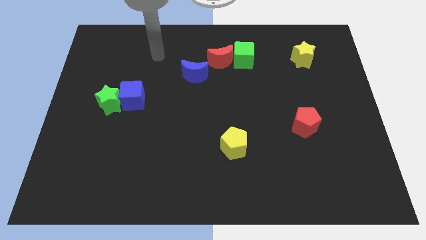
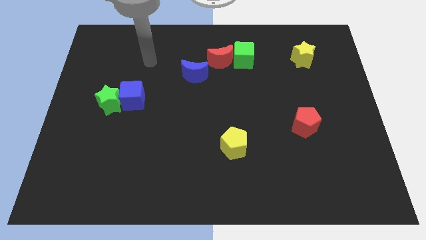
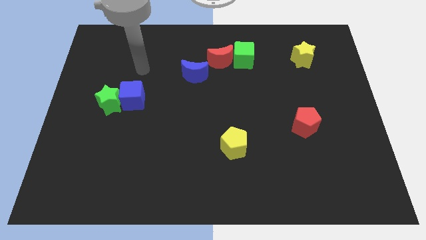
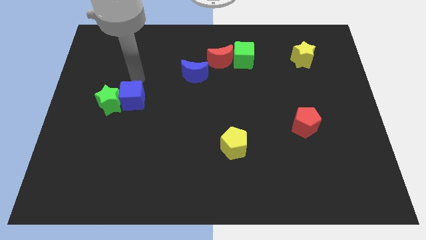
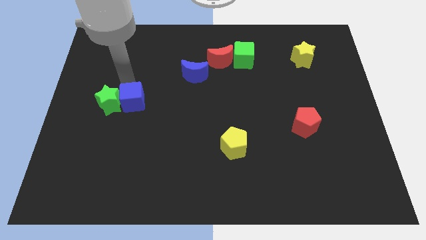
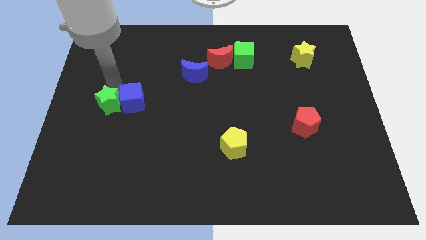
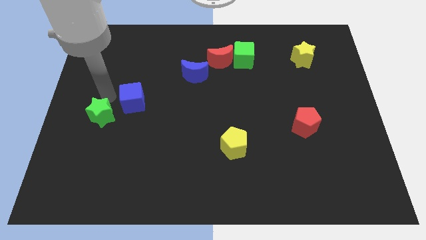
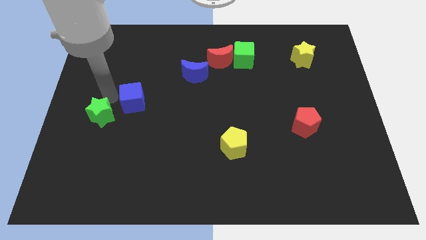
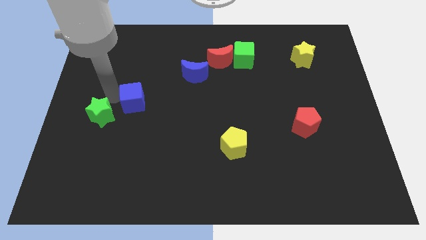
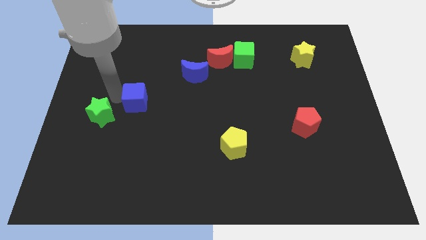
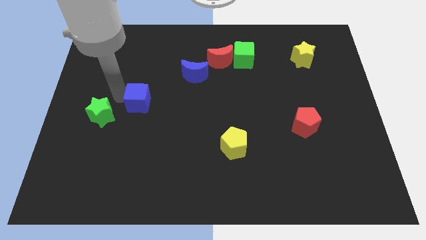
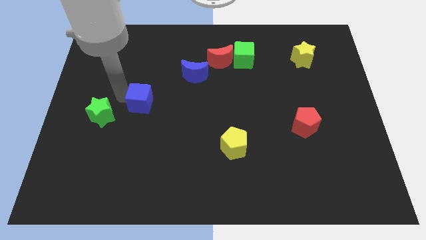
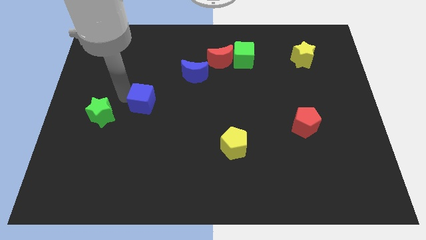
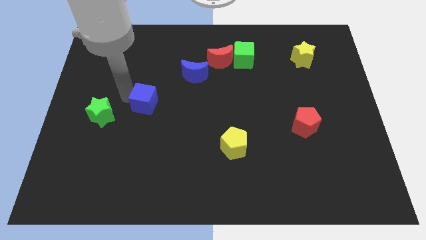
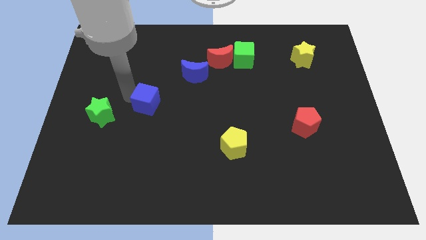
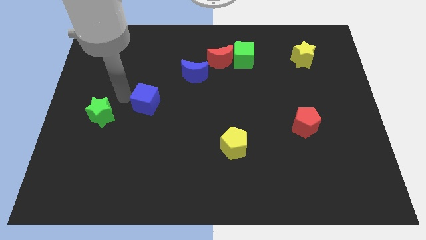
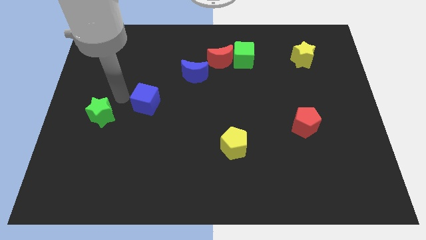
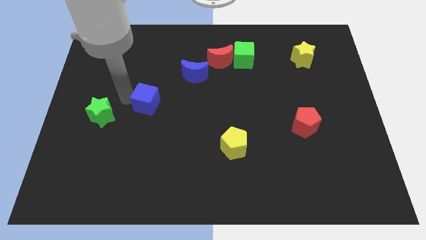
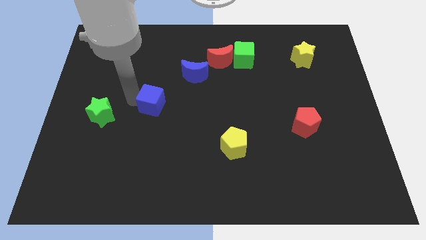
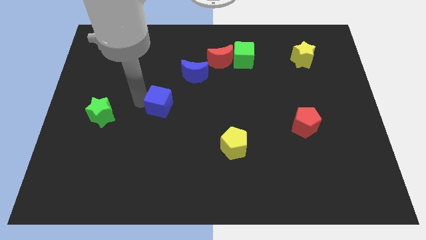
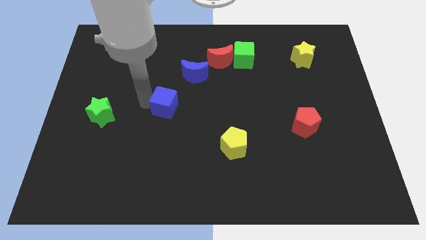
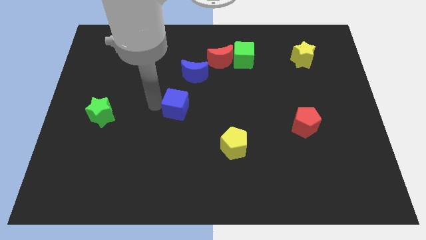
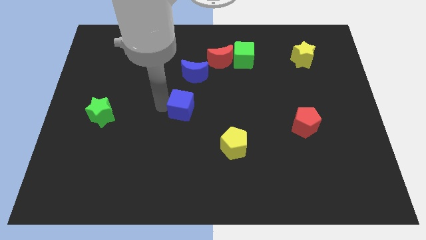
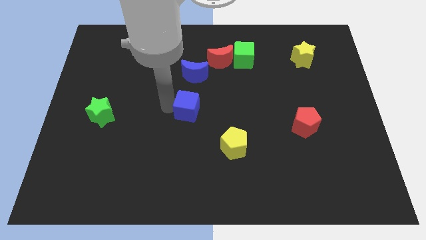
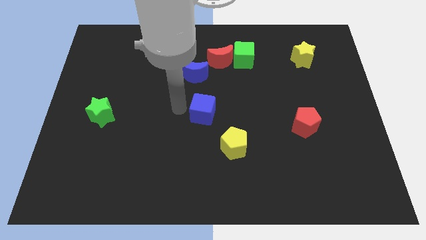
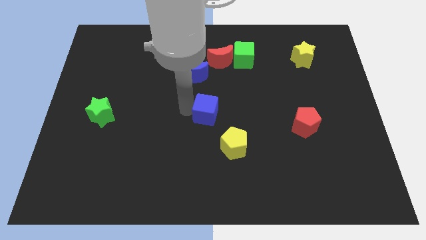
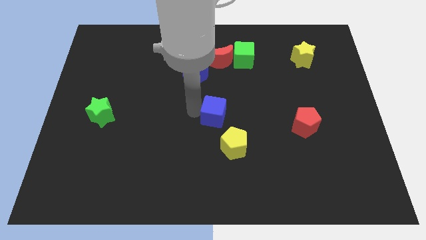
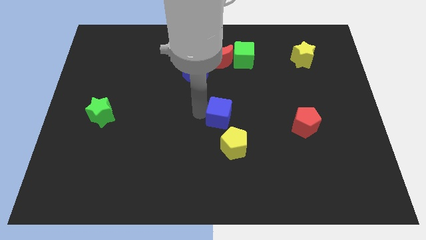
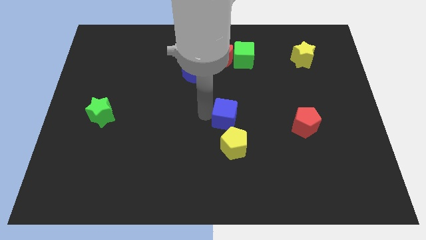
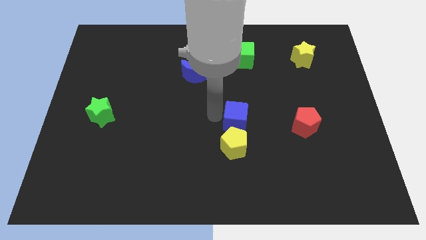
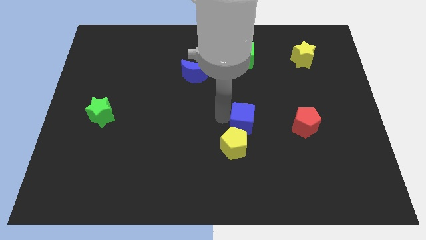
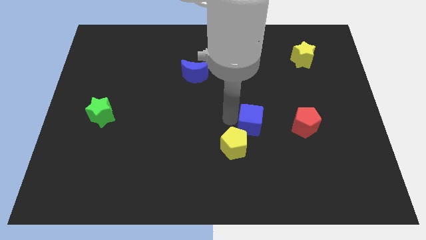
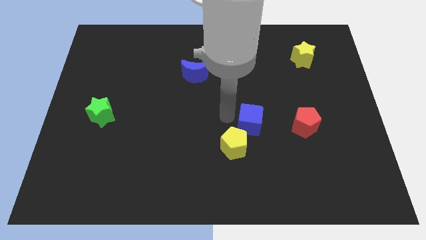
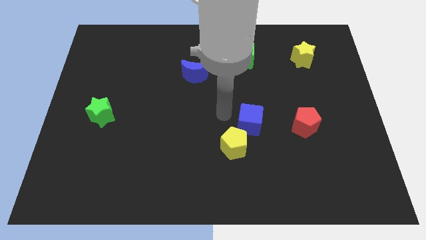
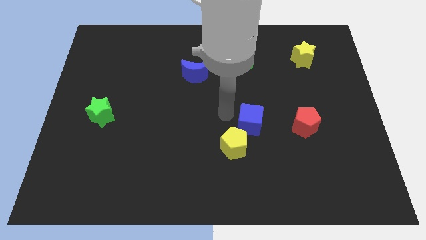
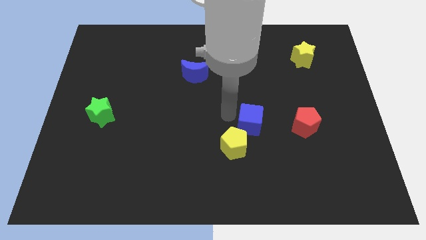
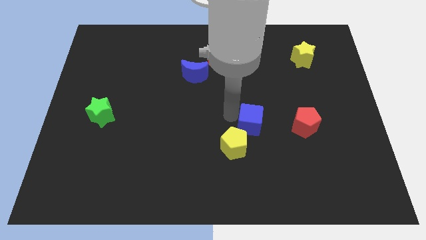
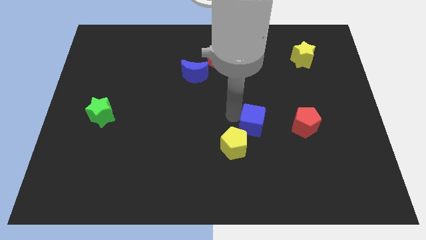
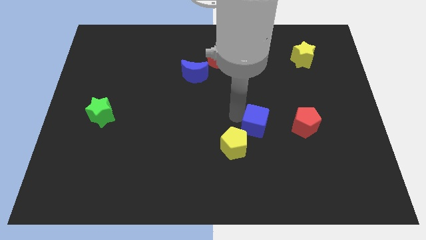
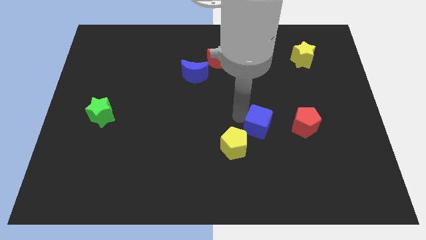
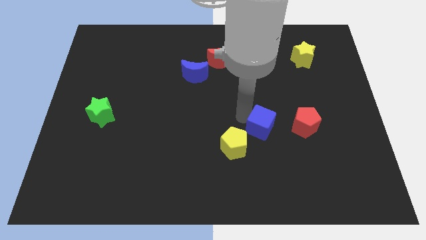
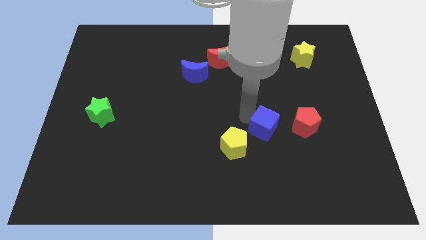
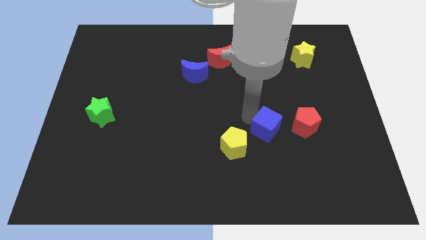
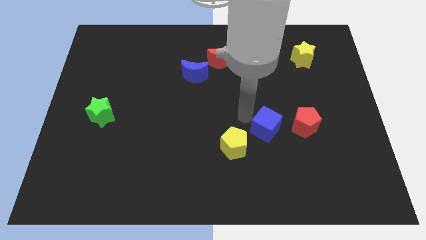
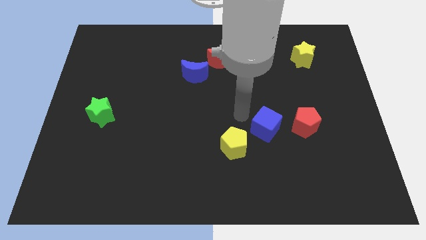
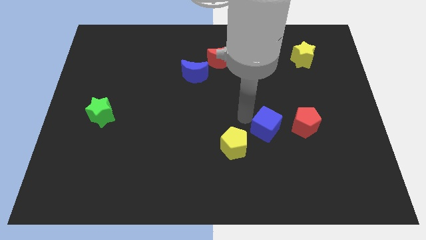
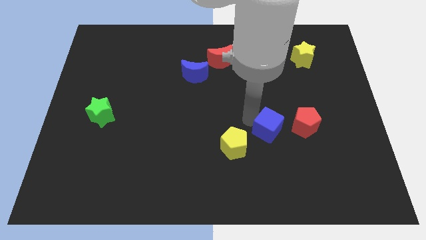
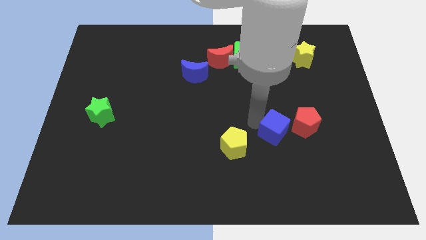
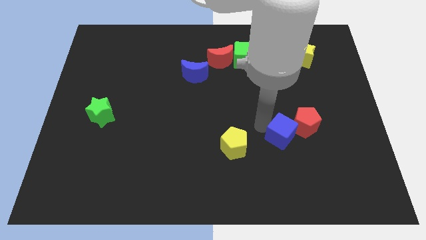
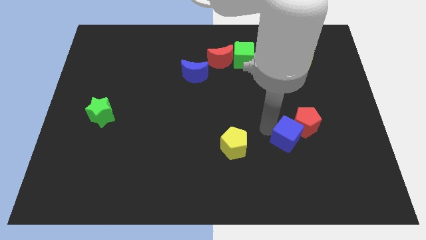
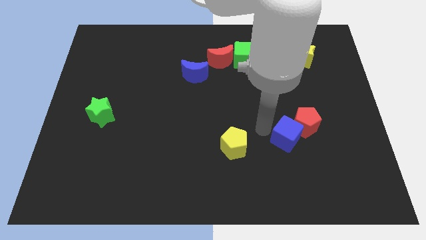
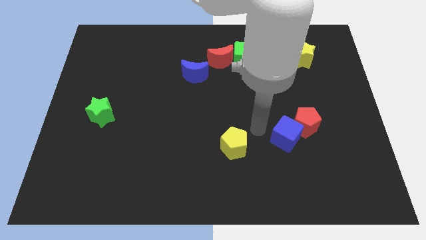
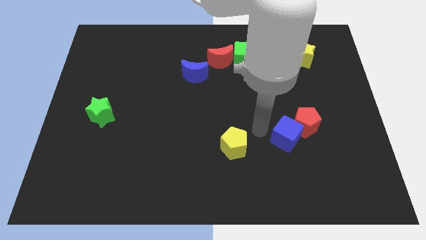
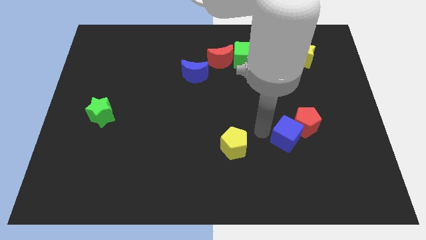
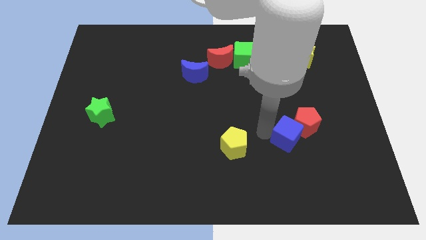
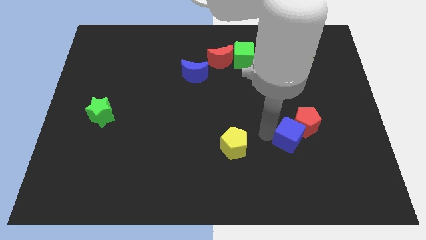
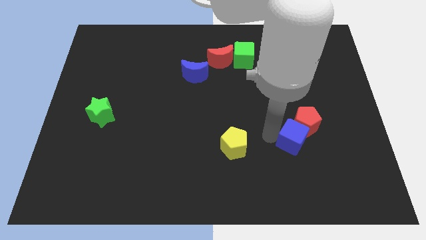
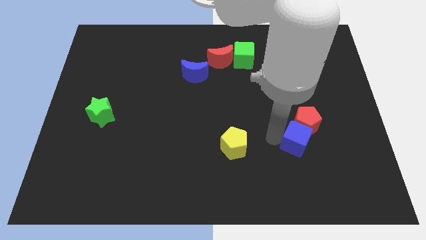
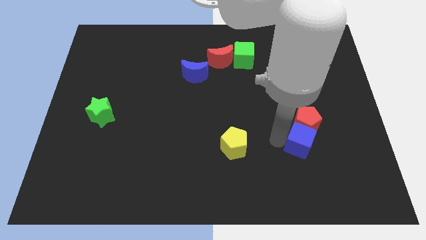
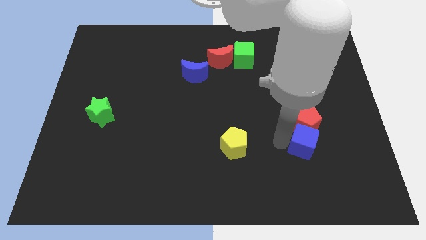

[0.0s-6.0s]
move the blue cube to the bottom right side of the red pentagon

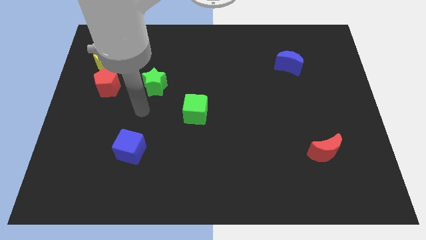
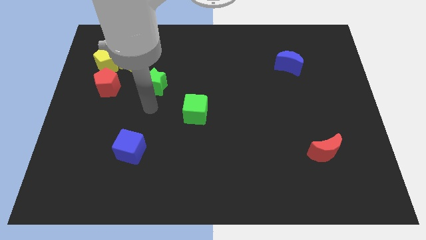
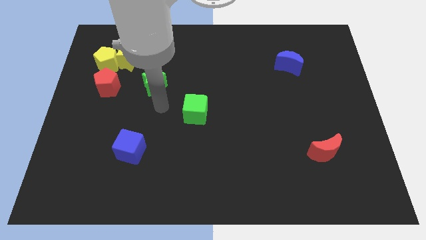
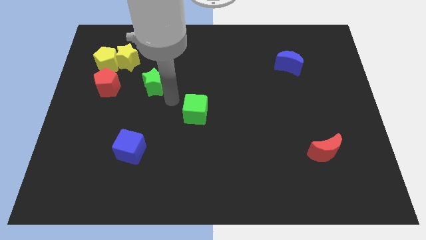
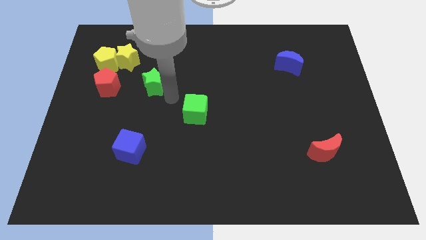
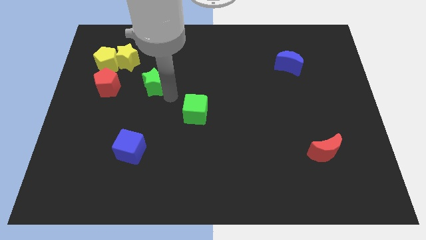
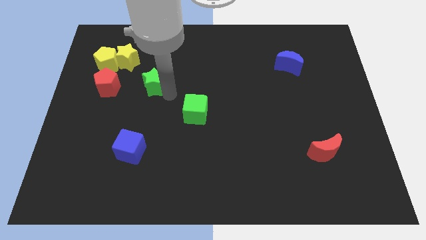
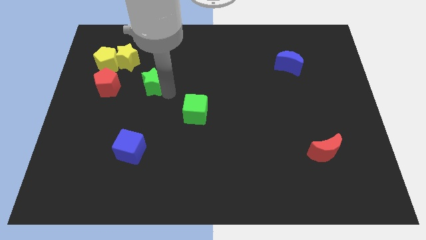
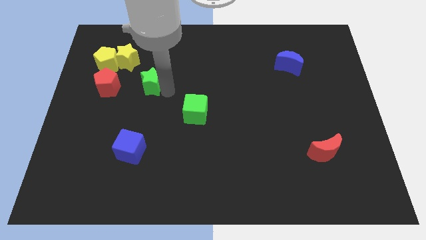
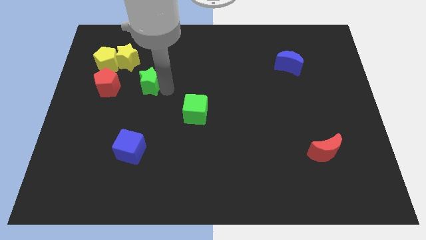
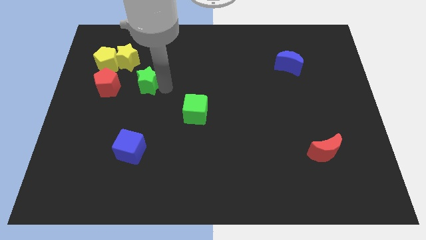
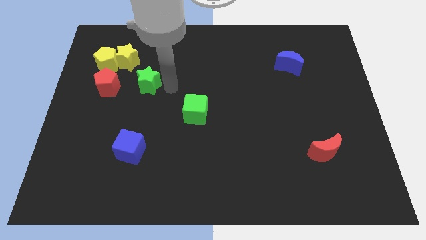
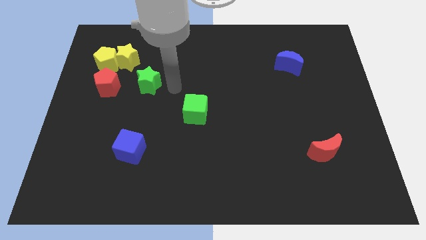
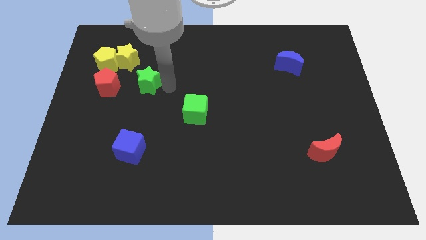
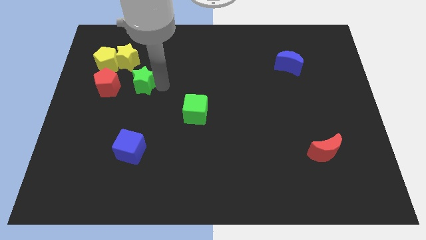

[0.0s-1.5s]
push the green star to the bottom right of the yellow pentagon
